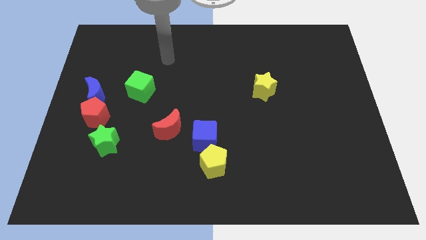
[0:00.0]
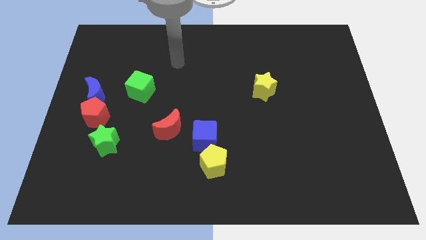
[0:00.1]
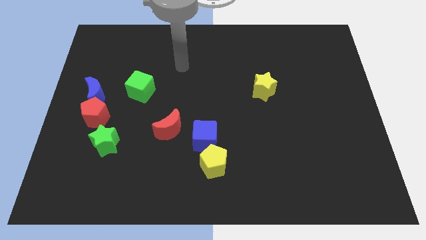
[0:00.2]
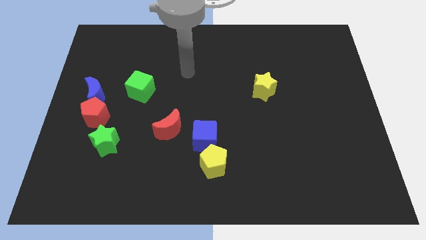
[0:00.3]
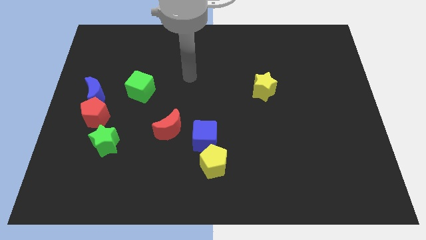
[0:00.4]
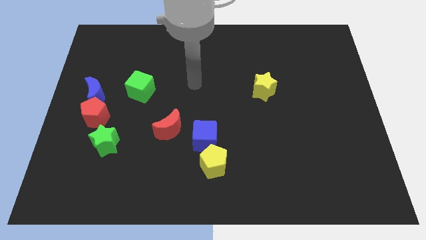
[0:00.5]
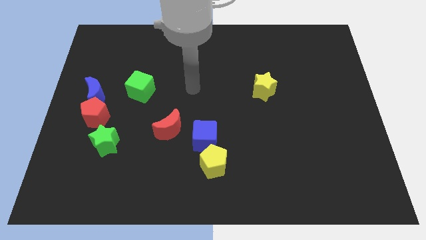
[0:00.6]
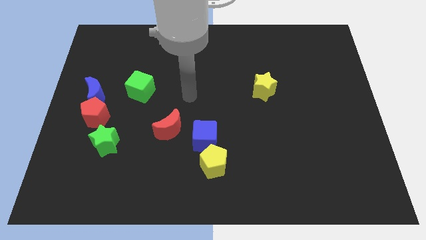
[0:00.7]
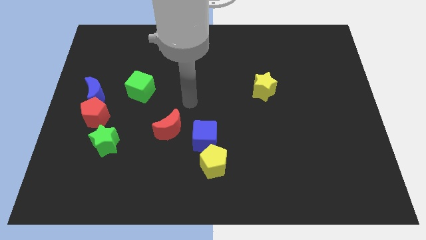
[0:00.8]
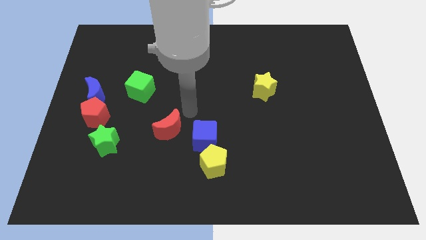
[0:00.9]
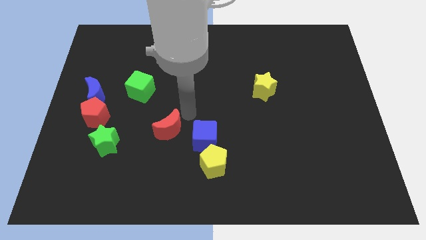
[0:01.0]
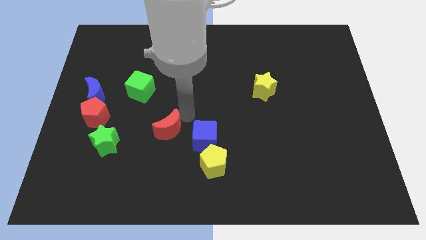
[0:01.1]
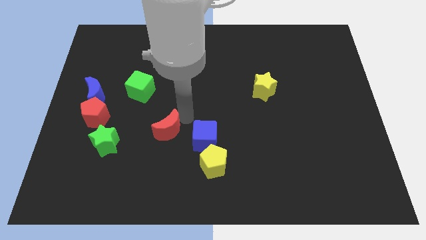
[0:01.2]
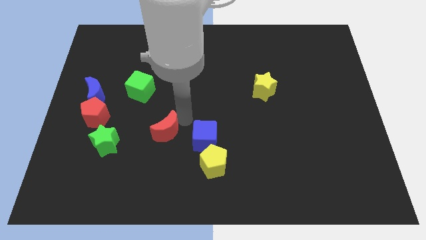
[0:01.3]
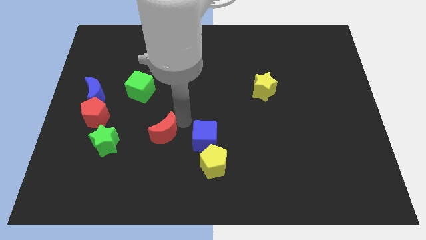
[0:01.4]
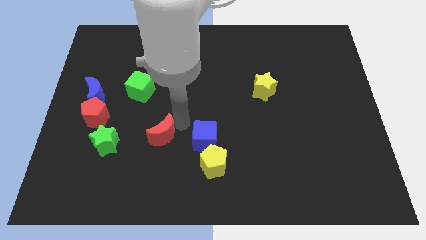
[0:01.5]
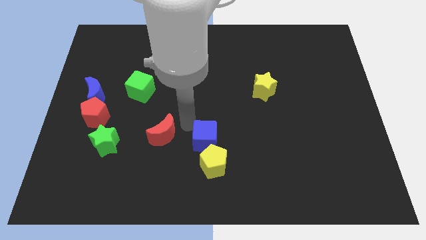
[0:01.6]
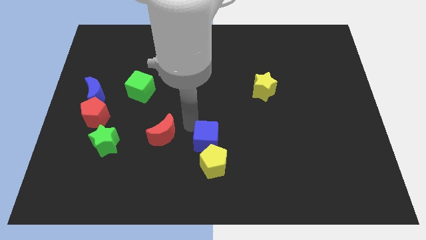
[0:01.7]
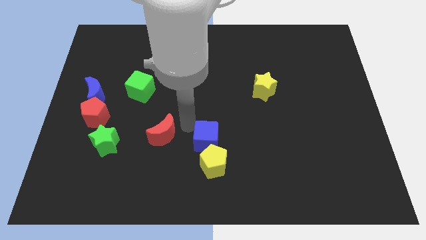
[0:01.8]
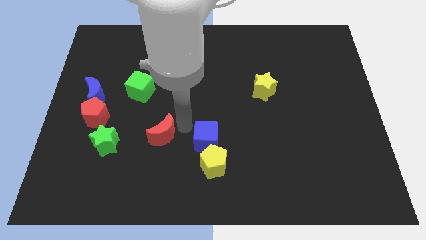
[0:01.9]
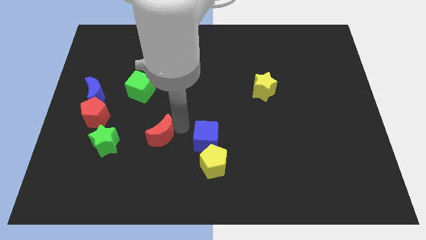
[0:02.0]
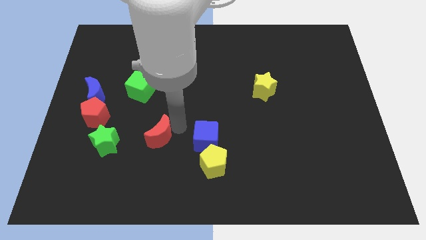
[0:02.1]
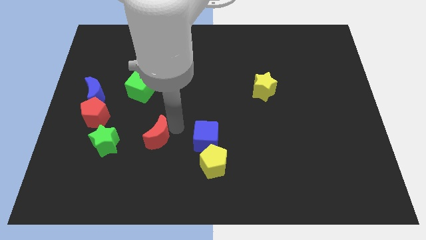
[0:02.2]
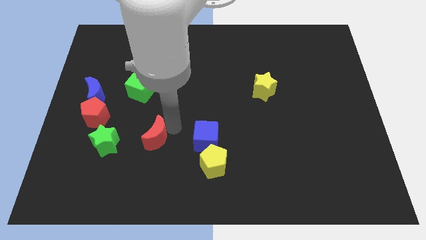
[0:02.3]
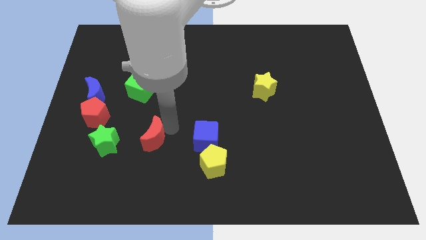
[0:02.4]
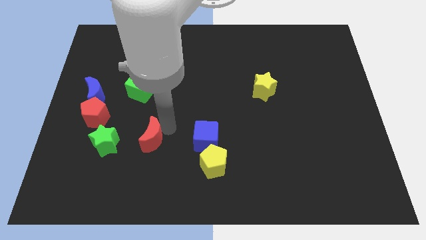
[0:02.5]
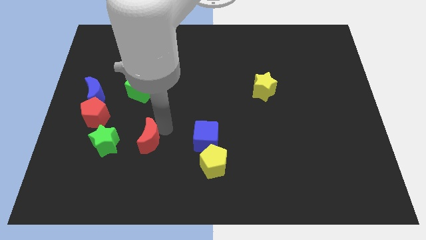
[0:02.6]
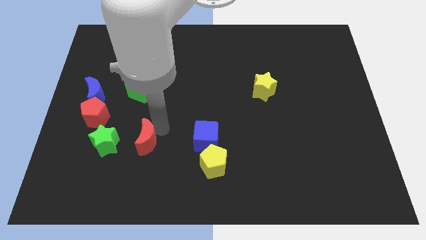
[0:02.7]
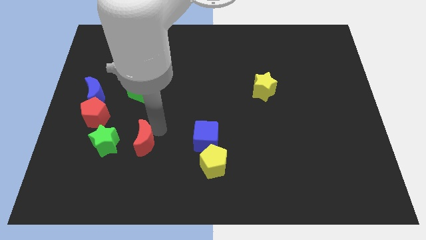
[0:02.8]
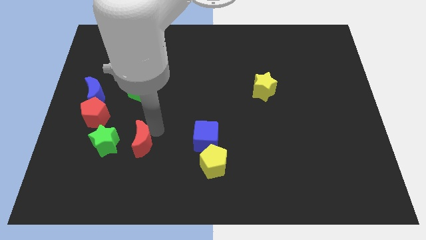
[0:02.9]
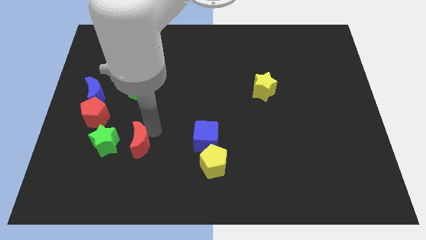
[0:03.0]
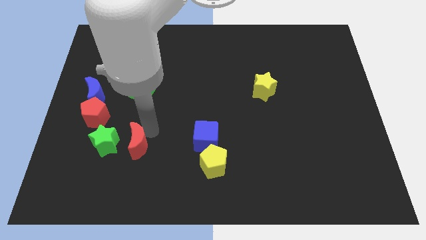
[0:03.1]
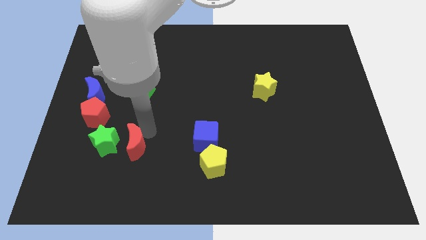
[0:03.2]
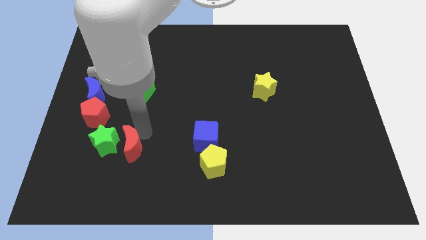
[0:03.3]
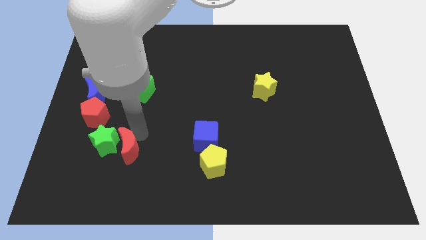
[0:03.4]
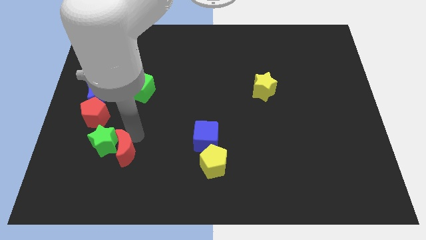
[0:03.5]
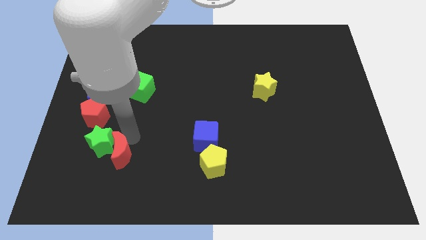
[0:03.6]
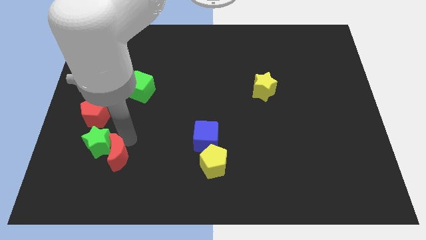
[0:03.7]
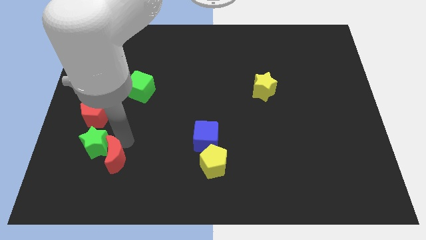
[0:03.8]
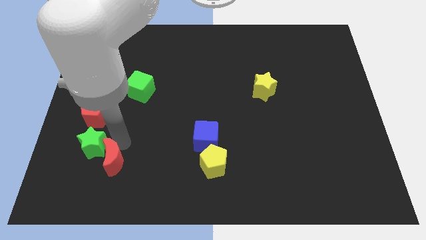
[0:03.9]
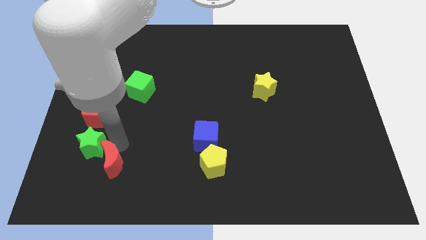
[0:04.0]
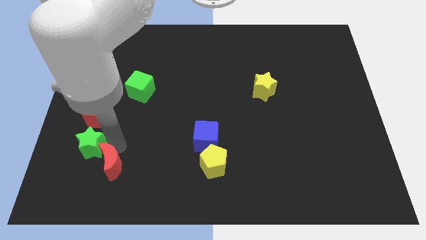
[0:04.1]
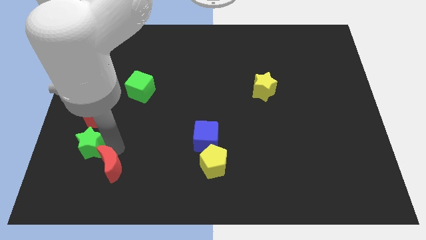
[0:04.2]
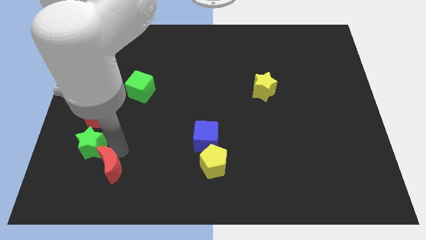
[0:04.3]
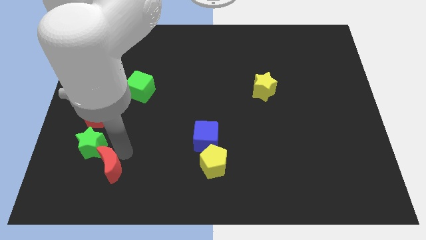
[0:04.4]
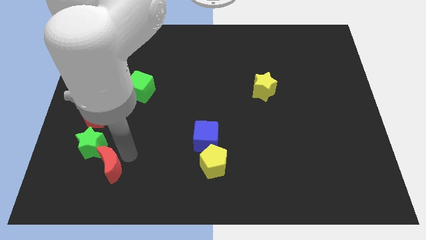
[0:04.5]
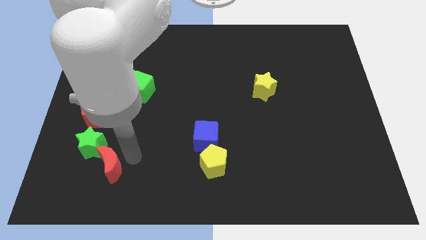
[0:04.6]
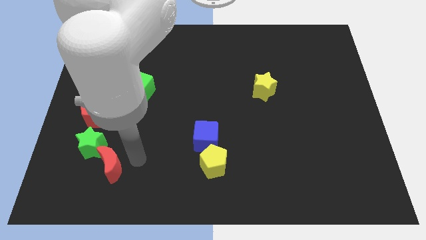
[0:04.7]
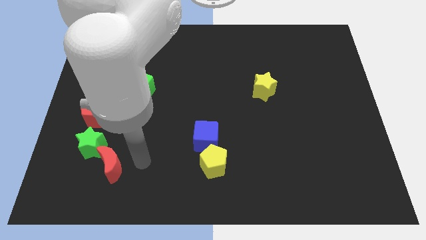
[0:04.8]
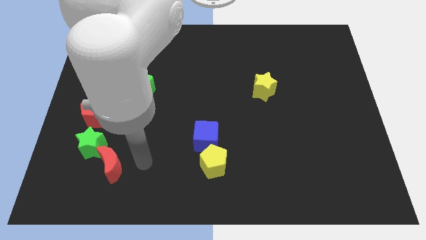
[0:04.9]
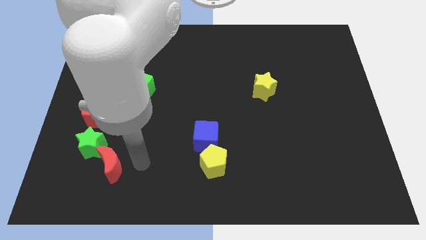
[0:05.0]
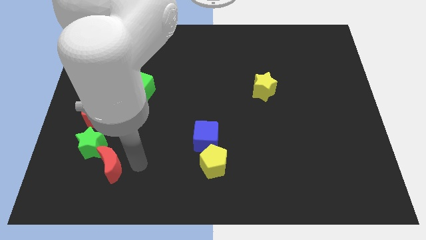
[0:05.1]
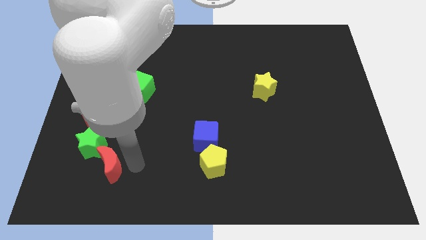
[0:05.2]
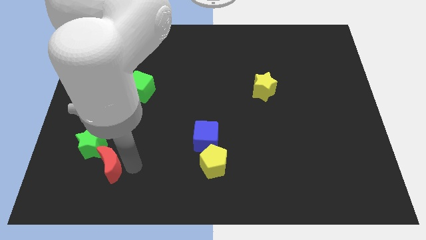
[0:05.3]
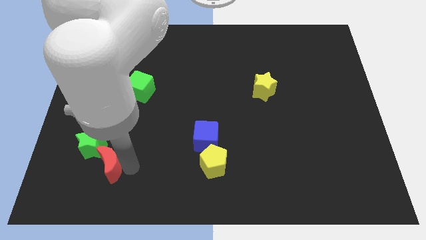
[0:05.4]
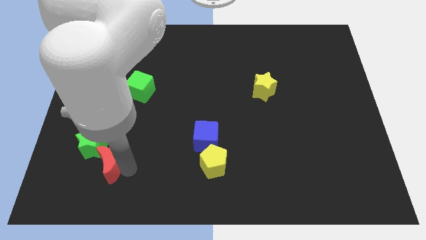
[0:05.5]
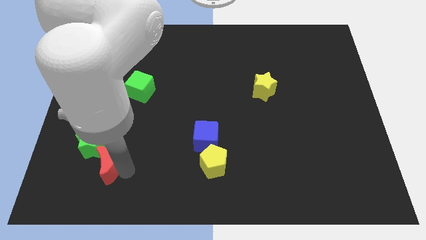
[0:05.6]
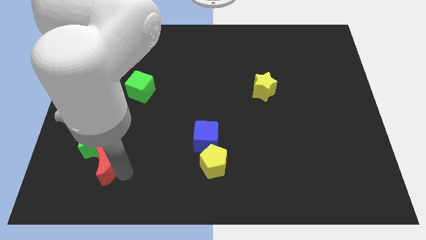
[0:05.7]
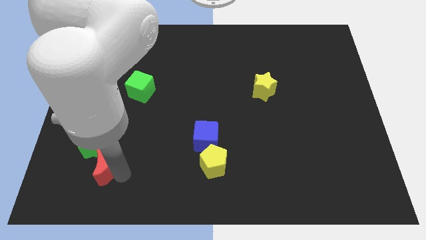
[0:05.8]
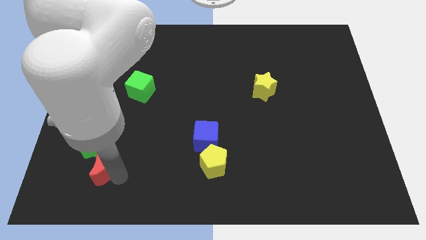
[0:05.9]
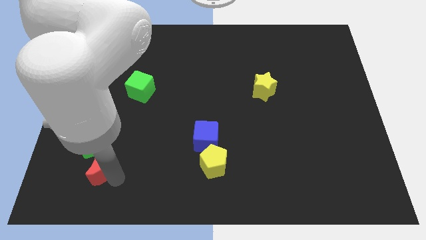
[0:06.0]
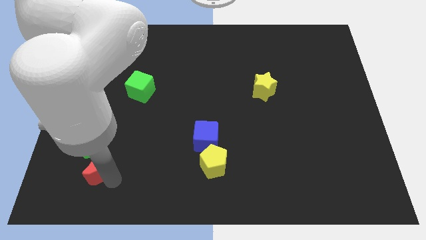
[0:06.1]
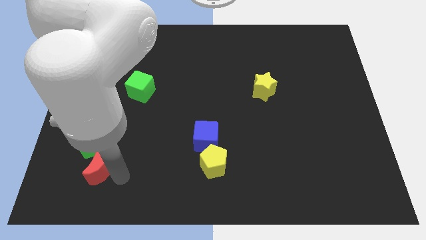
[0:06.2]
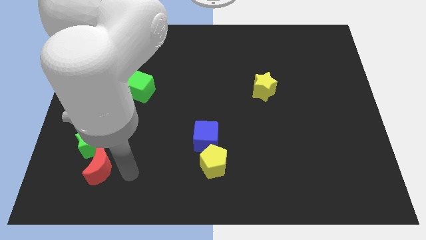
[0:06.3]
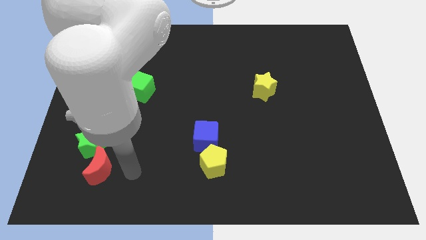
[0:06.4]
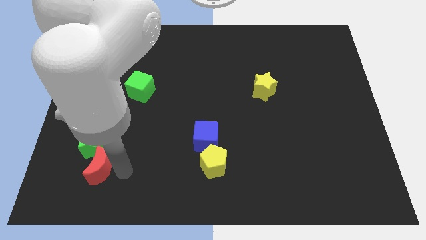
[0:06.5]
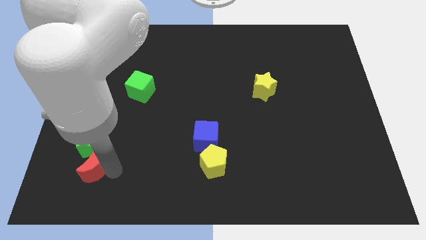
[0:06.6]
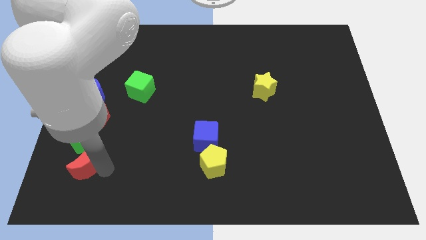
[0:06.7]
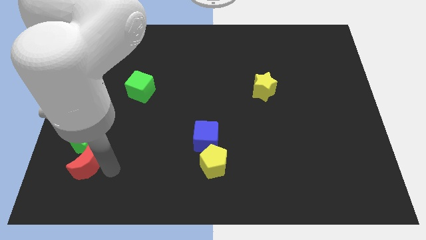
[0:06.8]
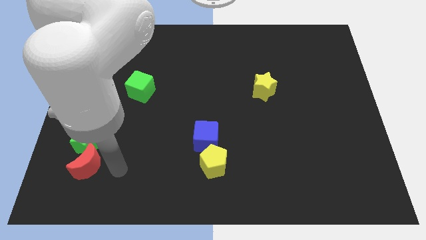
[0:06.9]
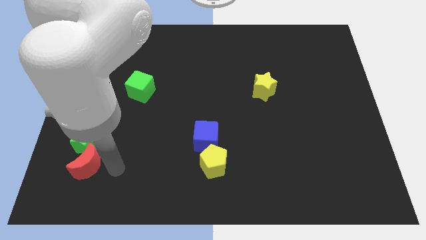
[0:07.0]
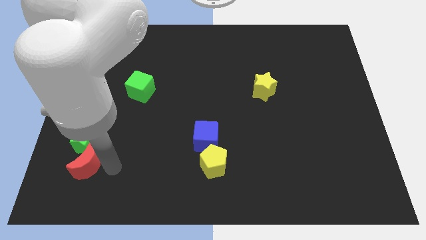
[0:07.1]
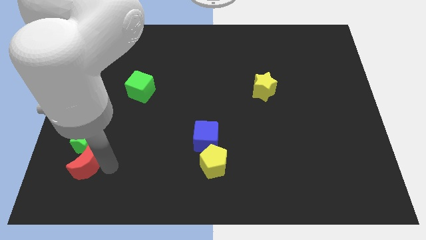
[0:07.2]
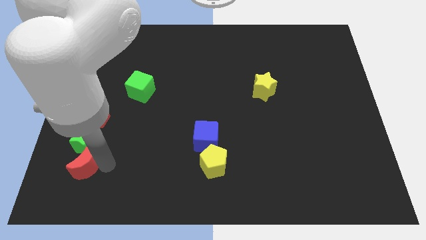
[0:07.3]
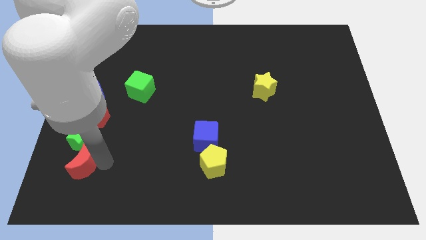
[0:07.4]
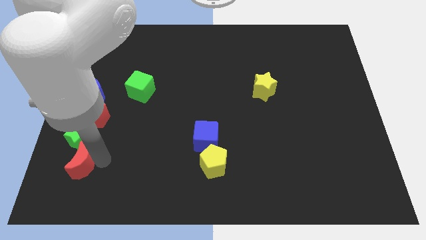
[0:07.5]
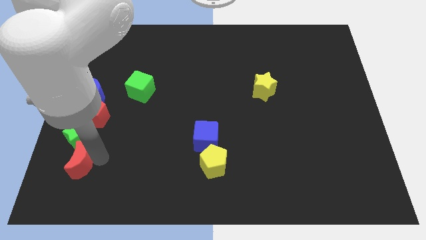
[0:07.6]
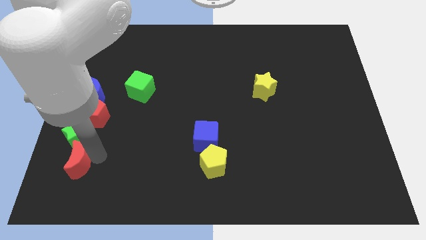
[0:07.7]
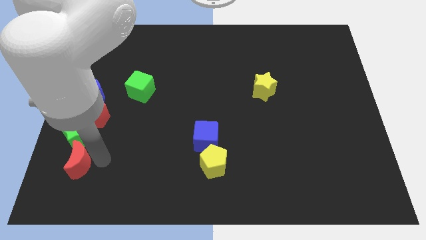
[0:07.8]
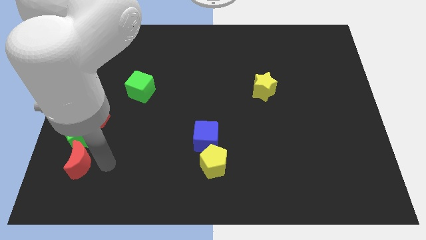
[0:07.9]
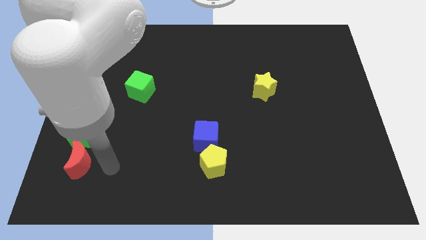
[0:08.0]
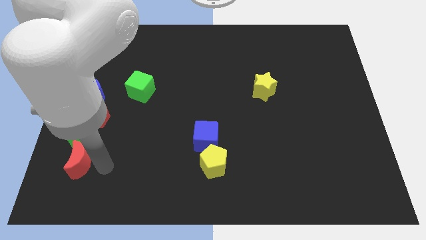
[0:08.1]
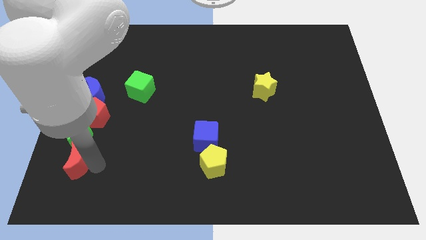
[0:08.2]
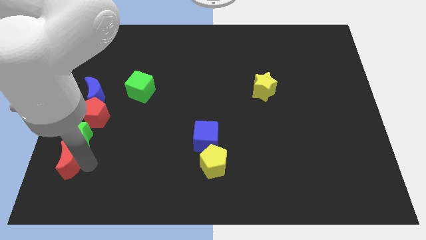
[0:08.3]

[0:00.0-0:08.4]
slide the red moon to the bottom left side of the green star
